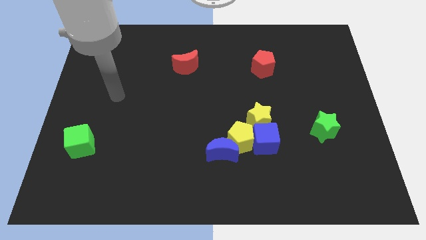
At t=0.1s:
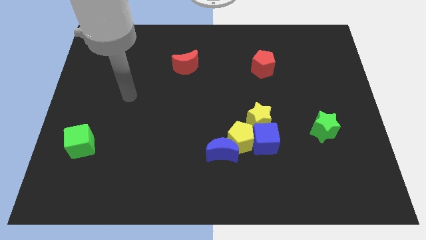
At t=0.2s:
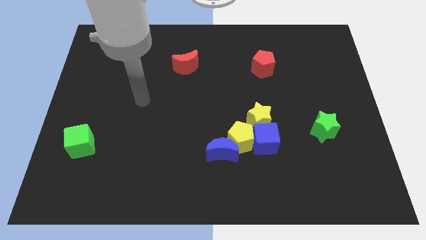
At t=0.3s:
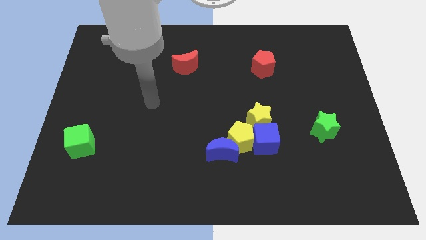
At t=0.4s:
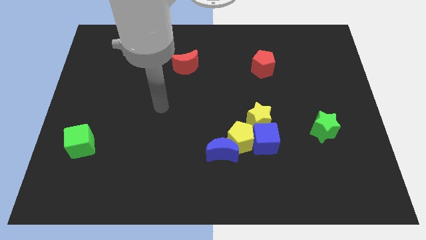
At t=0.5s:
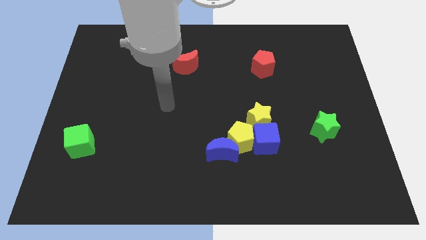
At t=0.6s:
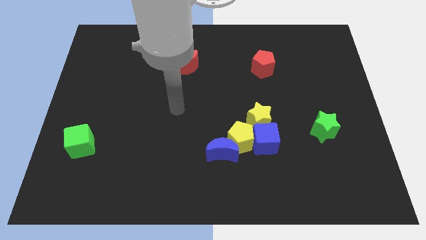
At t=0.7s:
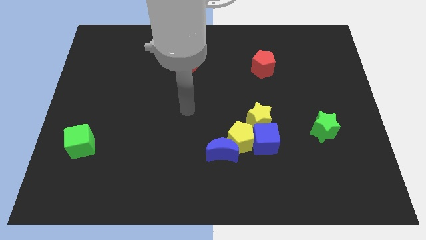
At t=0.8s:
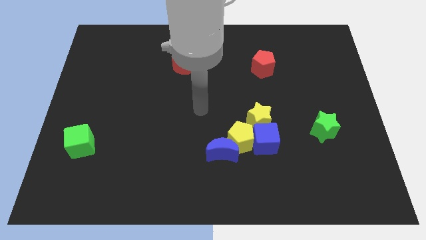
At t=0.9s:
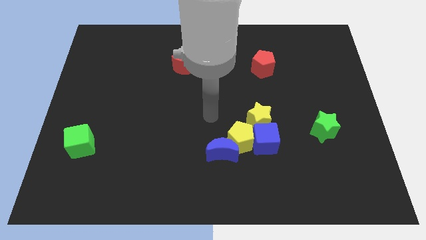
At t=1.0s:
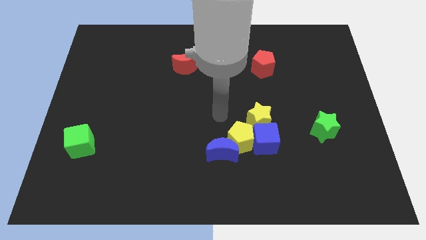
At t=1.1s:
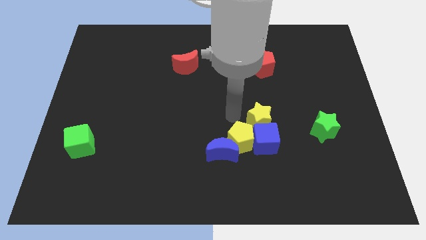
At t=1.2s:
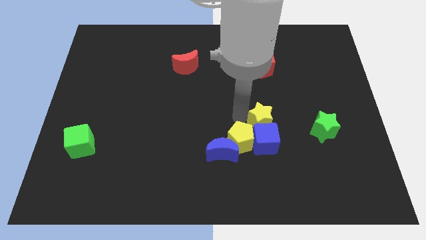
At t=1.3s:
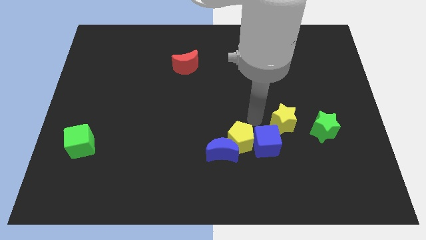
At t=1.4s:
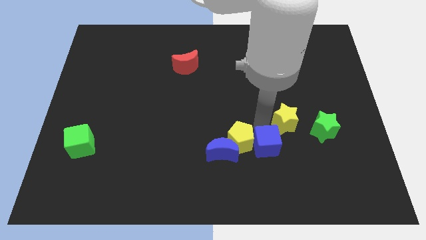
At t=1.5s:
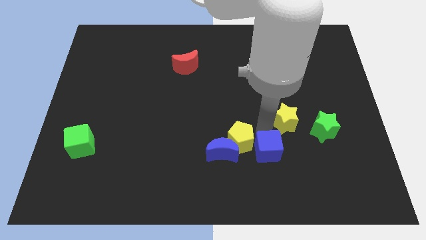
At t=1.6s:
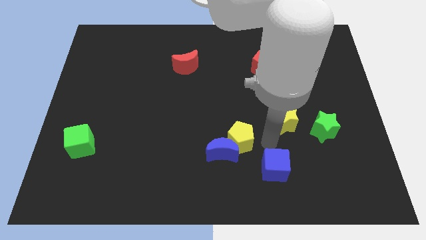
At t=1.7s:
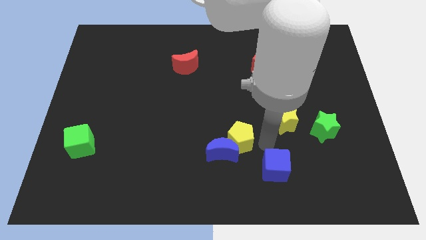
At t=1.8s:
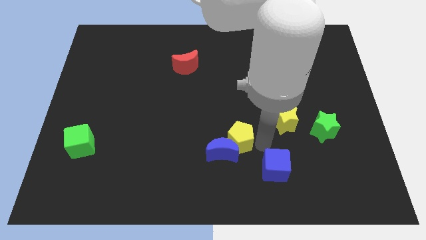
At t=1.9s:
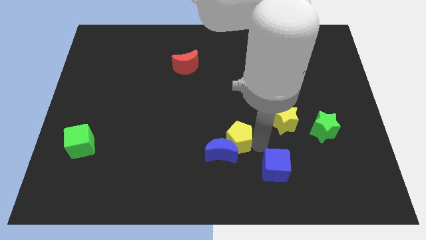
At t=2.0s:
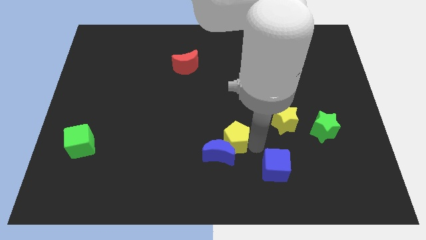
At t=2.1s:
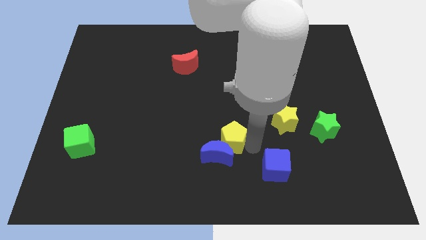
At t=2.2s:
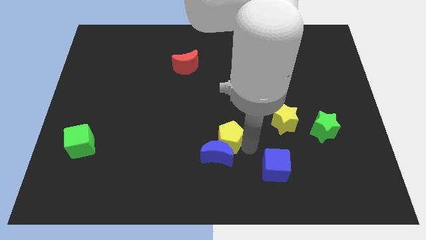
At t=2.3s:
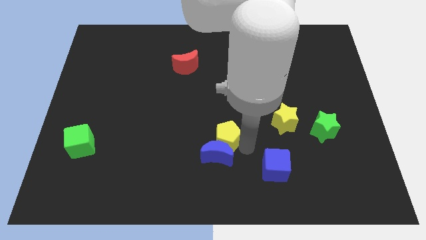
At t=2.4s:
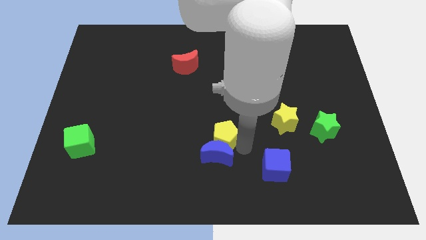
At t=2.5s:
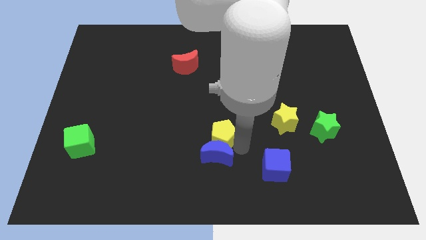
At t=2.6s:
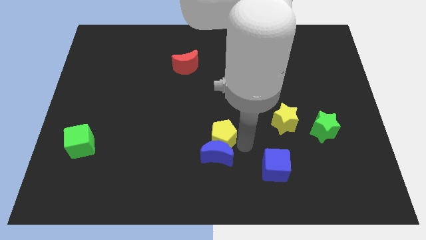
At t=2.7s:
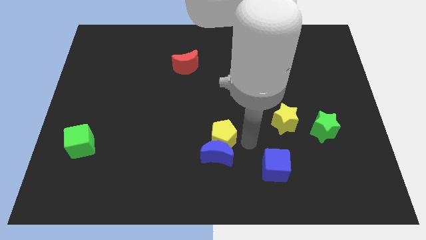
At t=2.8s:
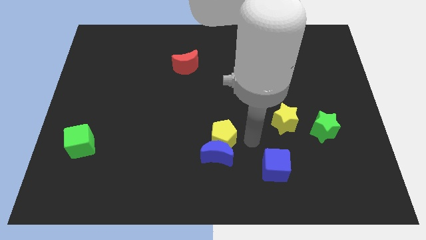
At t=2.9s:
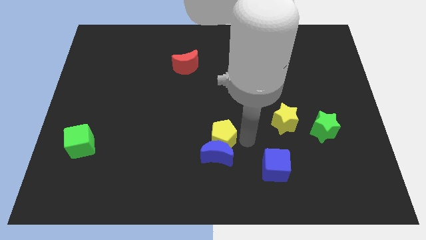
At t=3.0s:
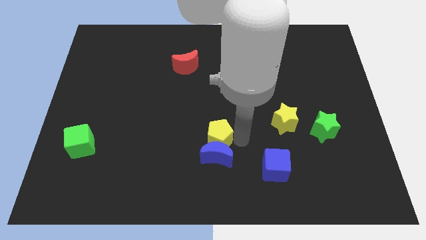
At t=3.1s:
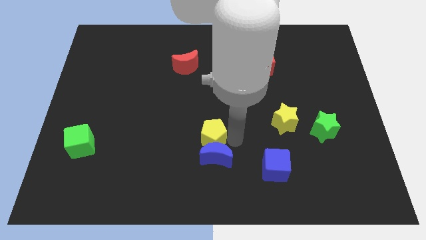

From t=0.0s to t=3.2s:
separate the yellow pentagon from the group of blocks

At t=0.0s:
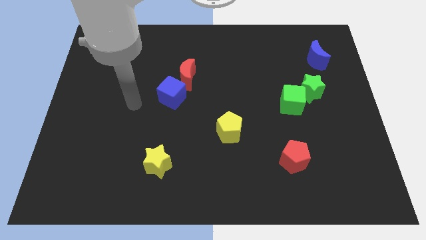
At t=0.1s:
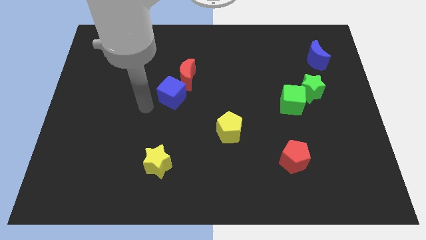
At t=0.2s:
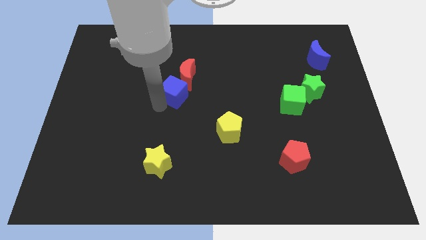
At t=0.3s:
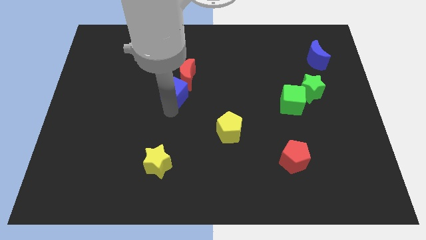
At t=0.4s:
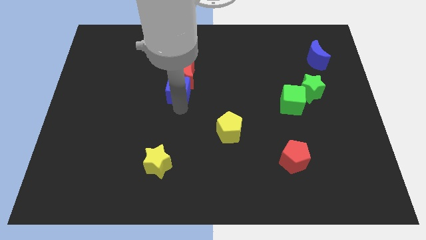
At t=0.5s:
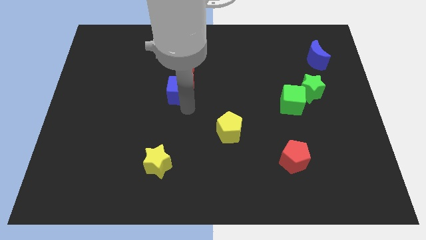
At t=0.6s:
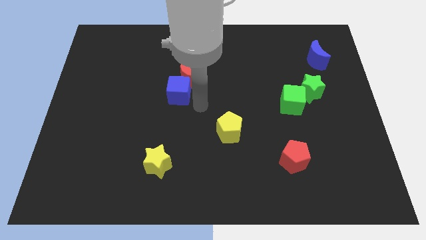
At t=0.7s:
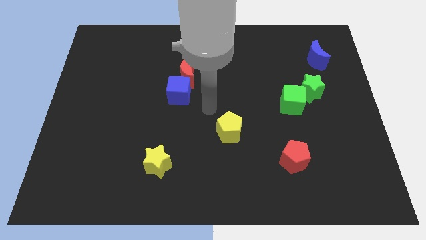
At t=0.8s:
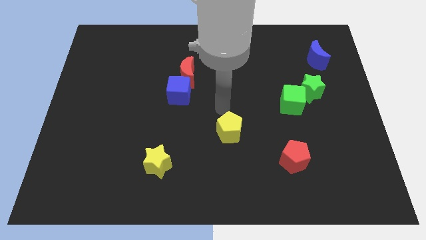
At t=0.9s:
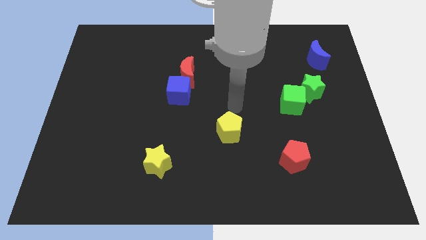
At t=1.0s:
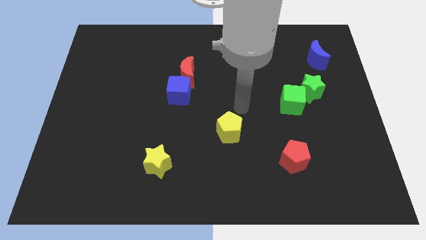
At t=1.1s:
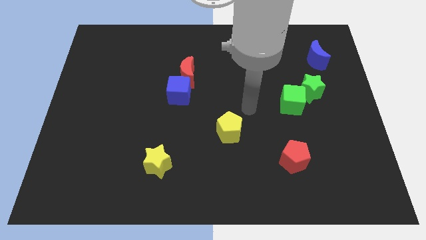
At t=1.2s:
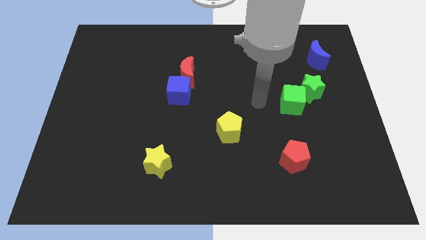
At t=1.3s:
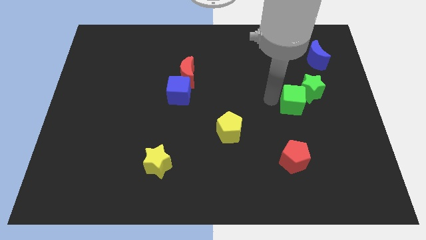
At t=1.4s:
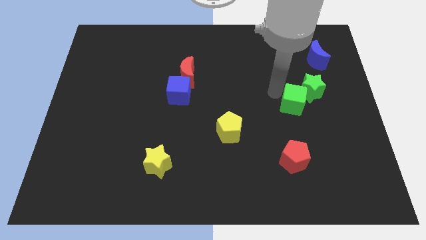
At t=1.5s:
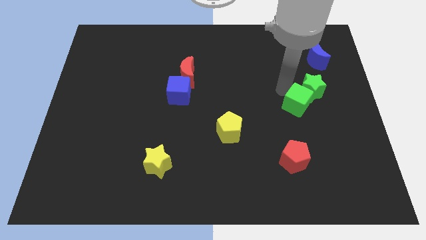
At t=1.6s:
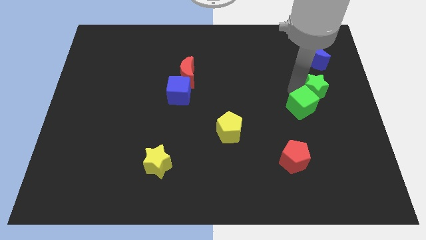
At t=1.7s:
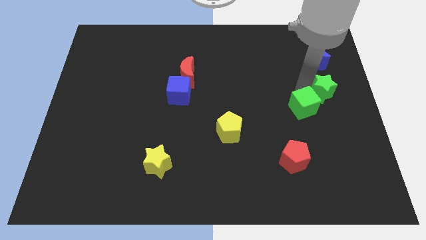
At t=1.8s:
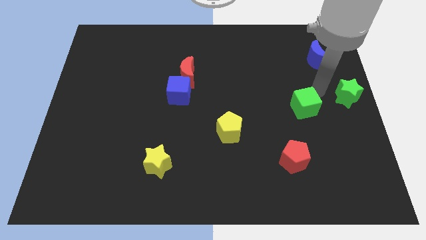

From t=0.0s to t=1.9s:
separate the green cube from the green star

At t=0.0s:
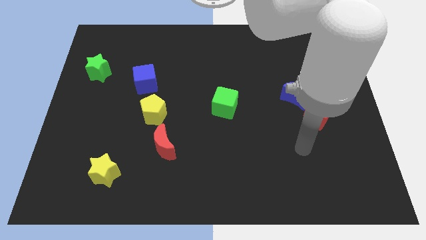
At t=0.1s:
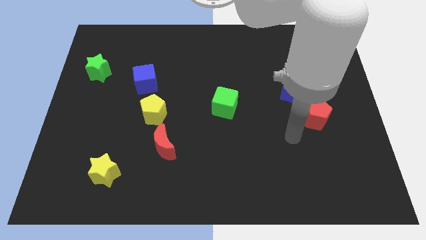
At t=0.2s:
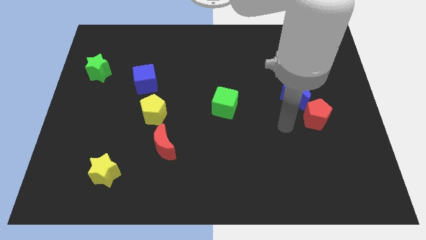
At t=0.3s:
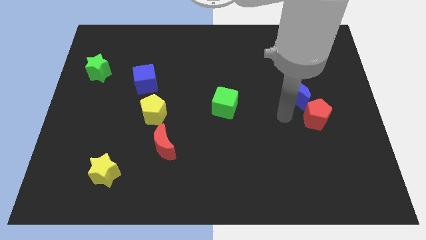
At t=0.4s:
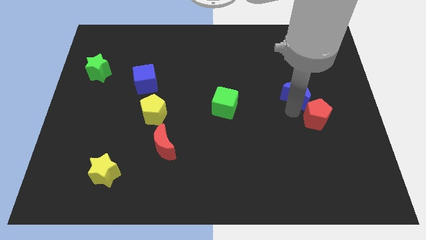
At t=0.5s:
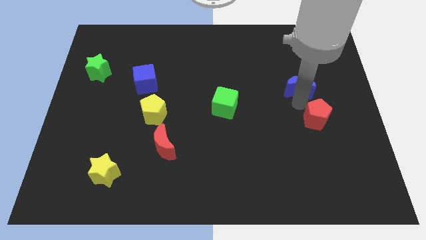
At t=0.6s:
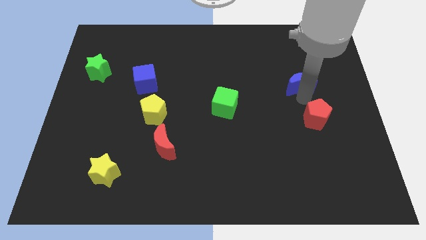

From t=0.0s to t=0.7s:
pull the red pentagon apart from the blue moon

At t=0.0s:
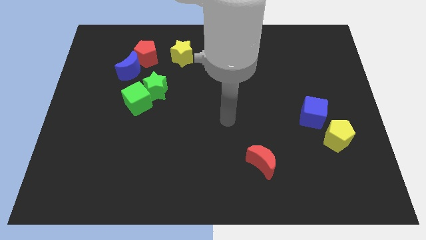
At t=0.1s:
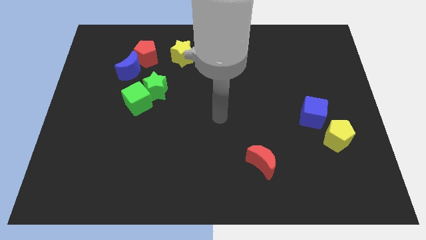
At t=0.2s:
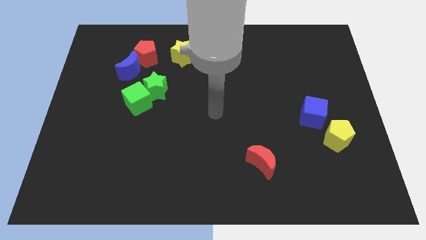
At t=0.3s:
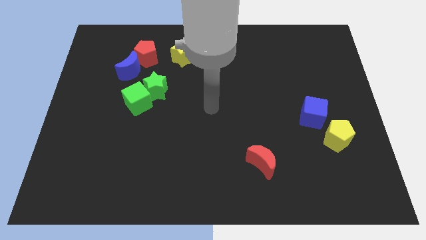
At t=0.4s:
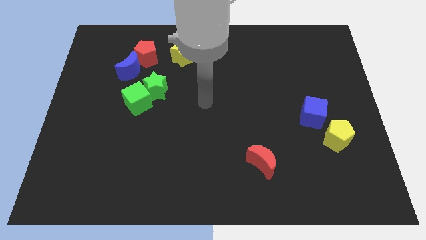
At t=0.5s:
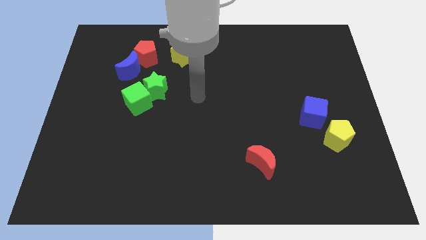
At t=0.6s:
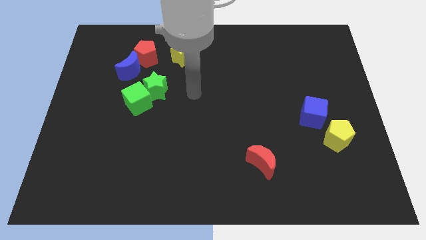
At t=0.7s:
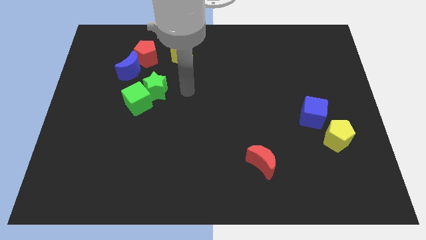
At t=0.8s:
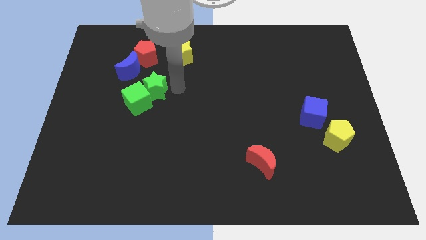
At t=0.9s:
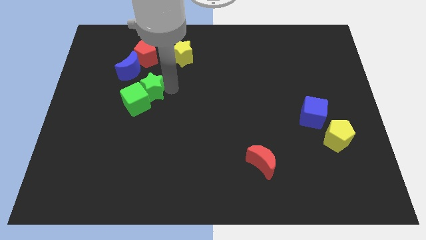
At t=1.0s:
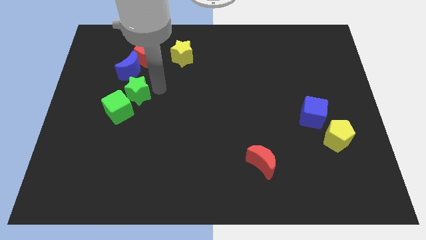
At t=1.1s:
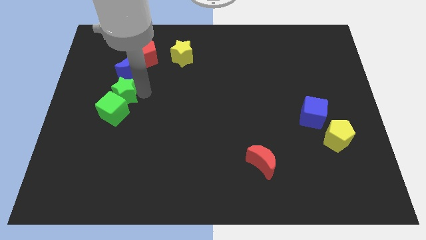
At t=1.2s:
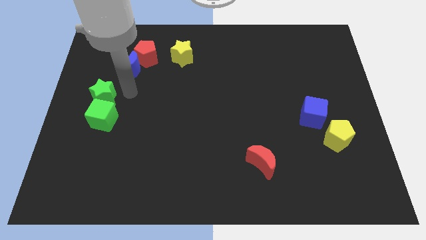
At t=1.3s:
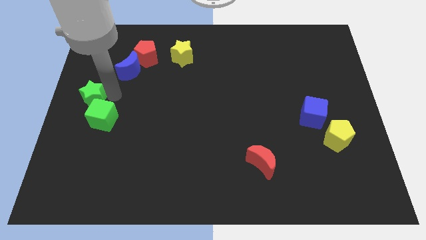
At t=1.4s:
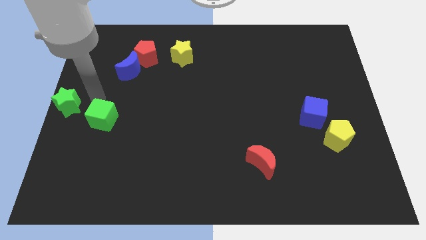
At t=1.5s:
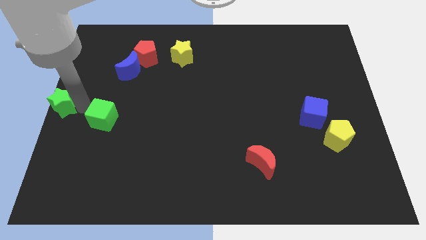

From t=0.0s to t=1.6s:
move the green cube away from the green star

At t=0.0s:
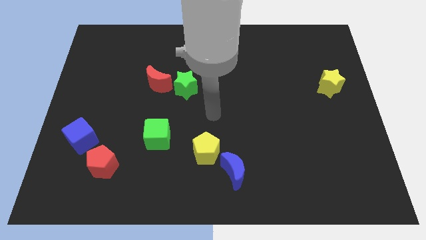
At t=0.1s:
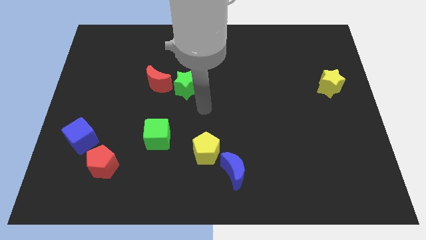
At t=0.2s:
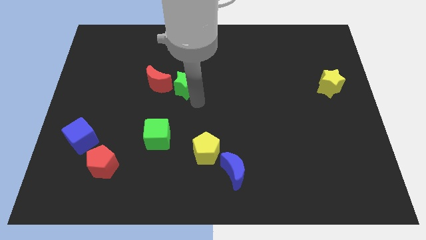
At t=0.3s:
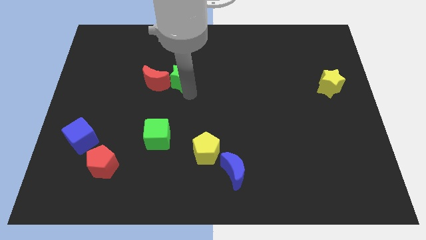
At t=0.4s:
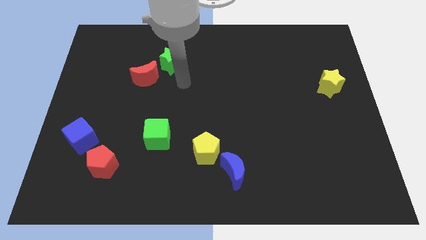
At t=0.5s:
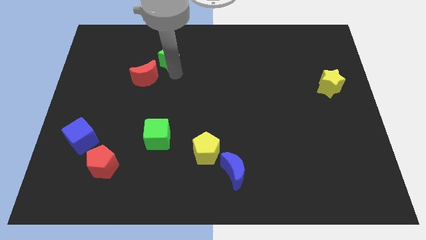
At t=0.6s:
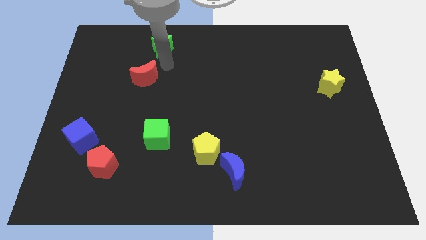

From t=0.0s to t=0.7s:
move the red moon away from the green star

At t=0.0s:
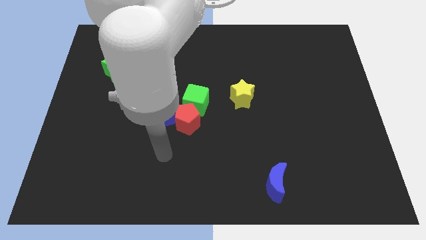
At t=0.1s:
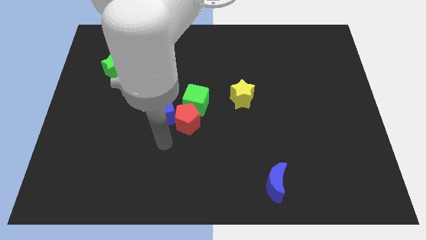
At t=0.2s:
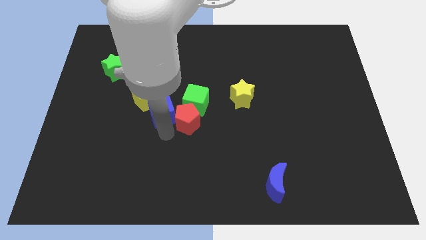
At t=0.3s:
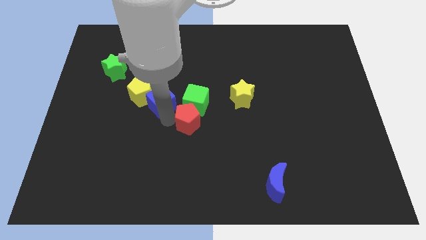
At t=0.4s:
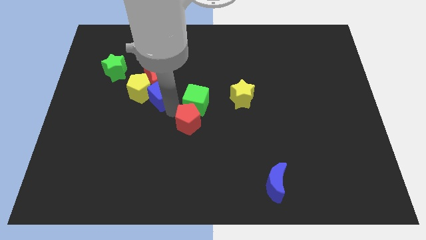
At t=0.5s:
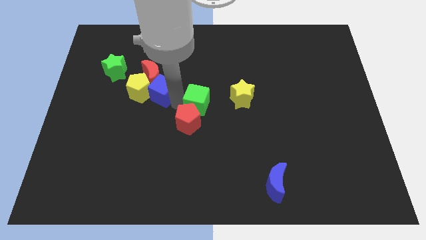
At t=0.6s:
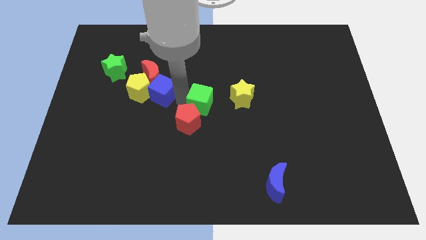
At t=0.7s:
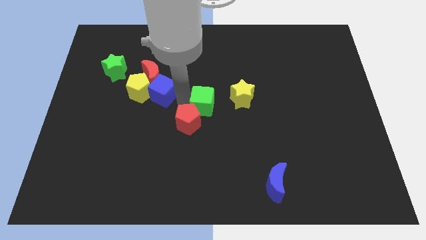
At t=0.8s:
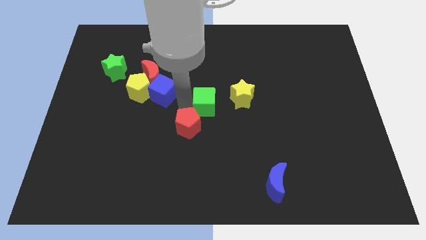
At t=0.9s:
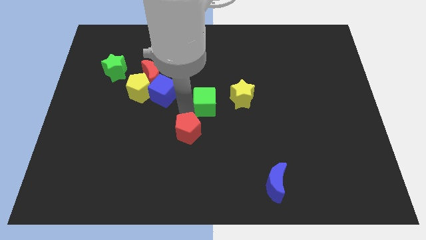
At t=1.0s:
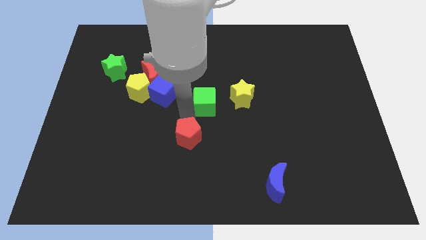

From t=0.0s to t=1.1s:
separate the red pentagon from the green cube and blue cube
